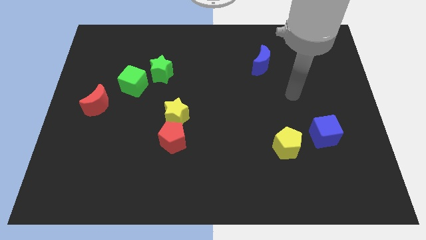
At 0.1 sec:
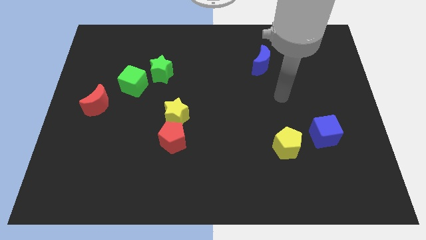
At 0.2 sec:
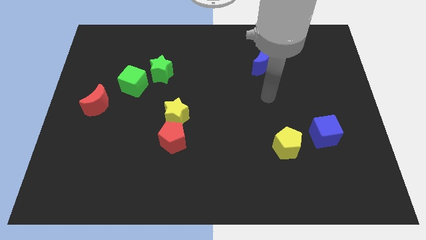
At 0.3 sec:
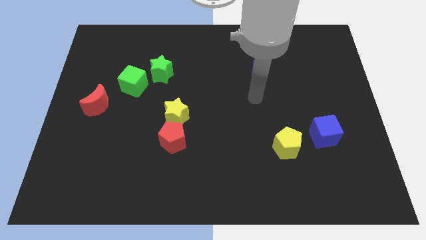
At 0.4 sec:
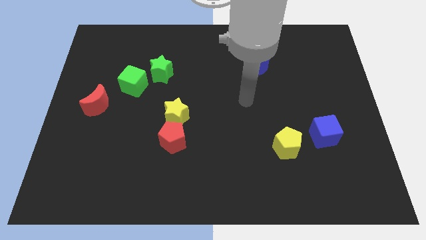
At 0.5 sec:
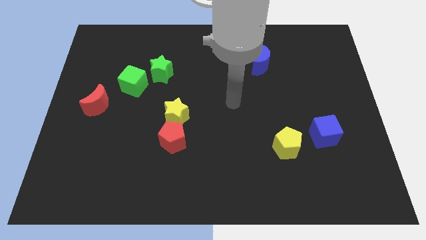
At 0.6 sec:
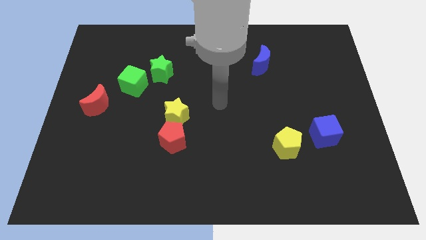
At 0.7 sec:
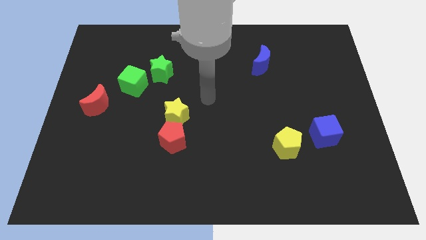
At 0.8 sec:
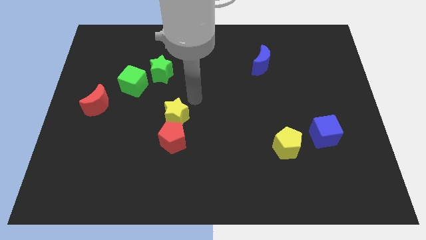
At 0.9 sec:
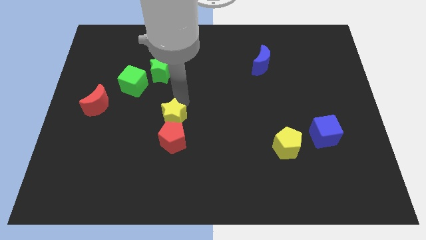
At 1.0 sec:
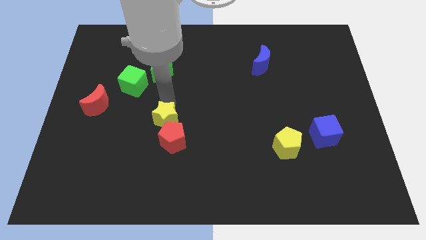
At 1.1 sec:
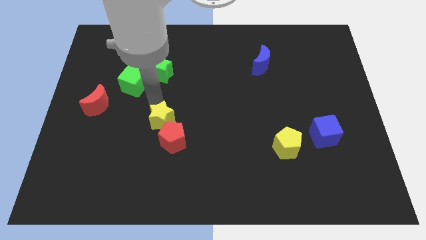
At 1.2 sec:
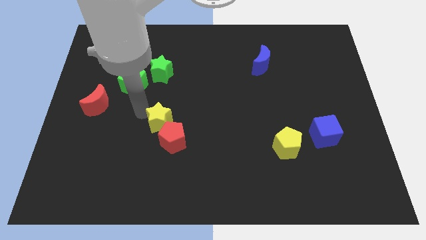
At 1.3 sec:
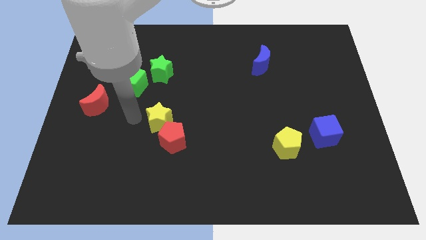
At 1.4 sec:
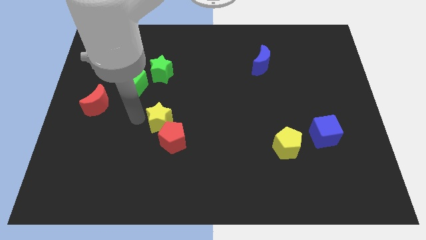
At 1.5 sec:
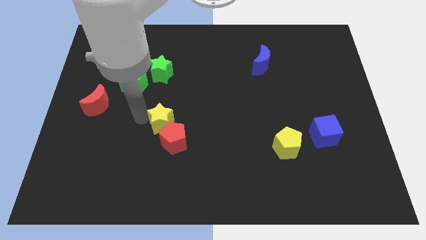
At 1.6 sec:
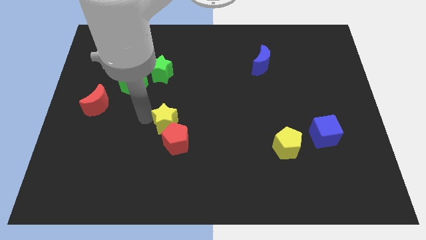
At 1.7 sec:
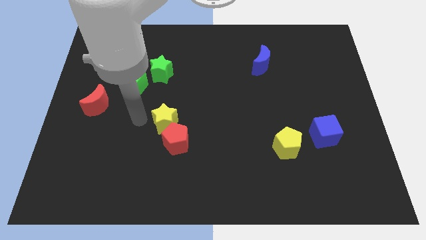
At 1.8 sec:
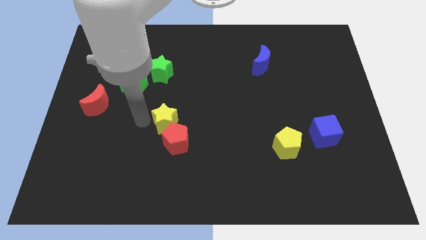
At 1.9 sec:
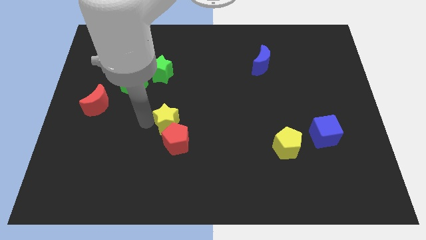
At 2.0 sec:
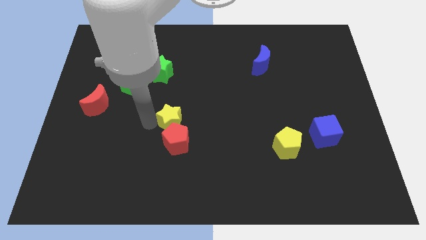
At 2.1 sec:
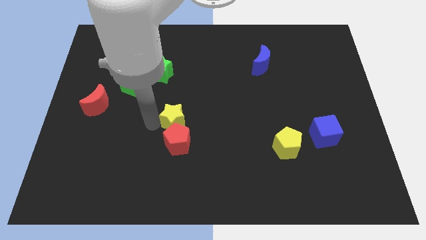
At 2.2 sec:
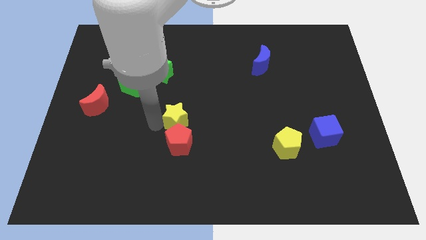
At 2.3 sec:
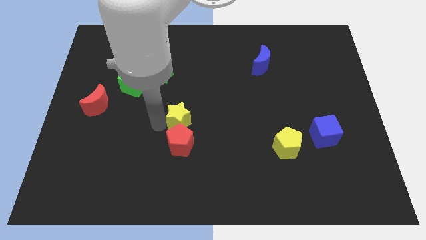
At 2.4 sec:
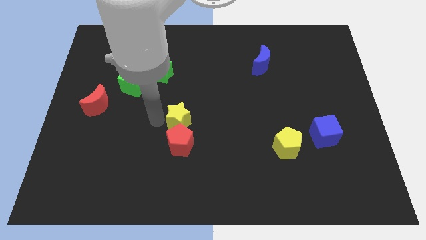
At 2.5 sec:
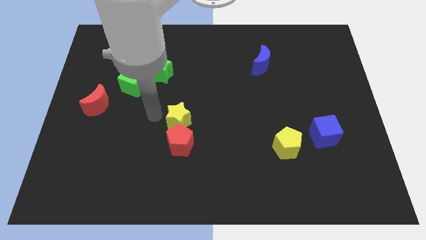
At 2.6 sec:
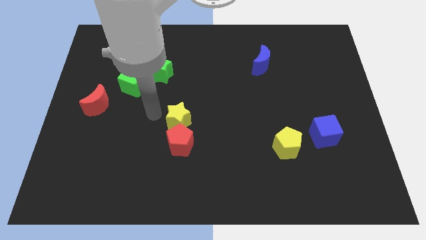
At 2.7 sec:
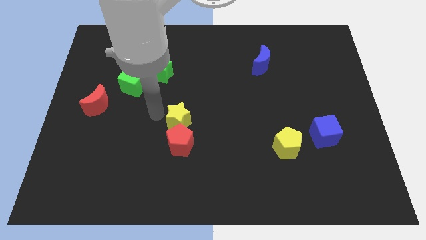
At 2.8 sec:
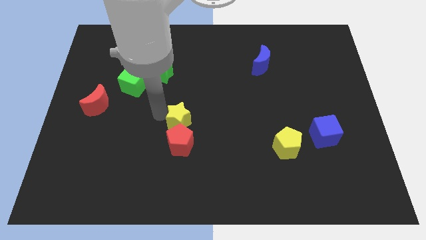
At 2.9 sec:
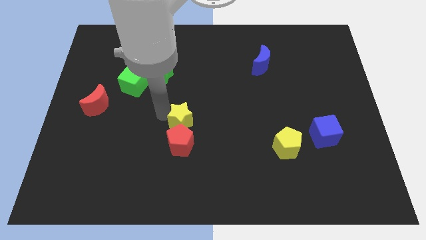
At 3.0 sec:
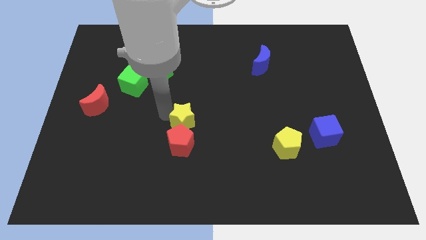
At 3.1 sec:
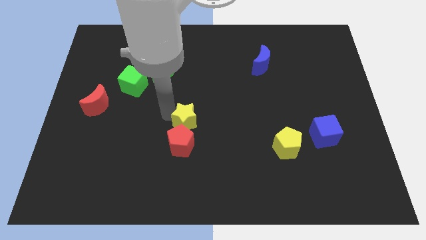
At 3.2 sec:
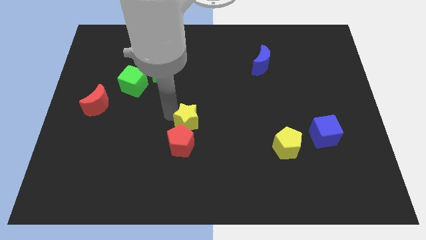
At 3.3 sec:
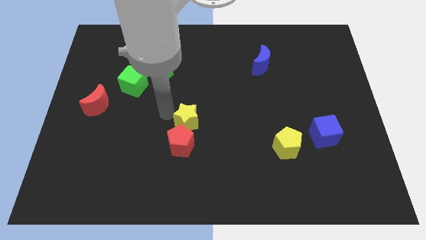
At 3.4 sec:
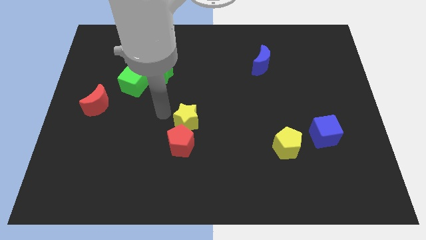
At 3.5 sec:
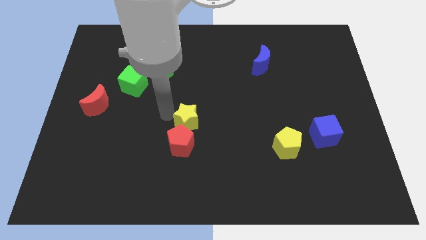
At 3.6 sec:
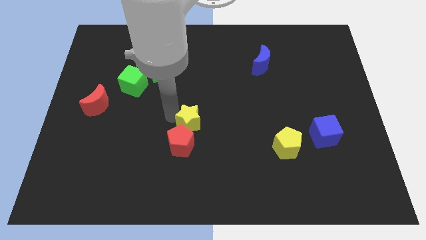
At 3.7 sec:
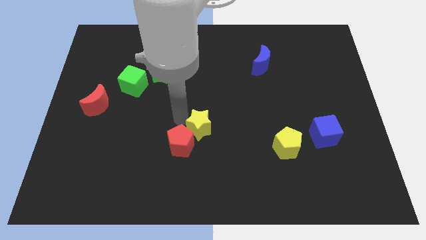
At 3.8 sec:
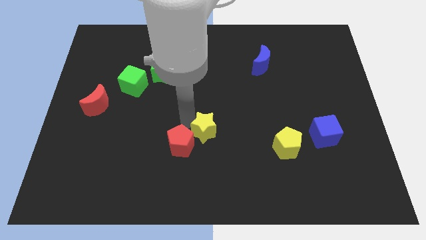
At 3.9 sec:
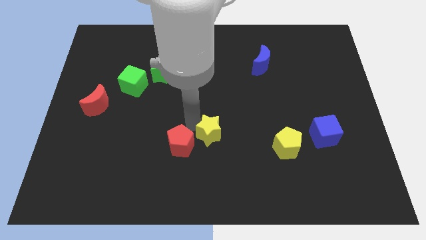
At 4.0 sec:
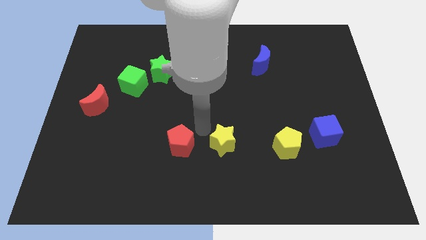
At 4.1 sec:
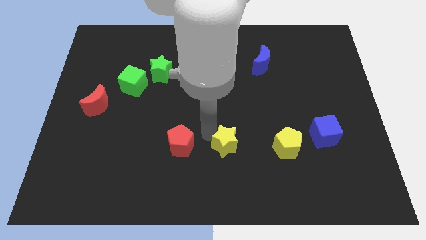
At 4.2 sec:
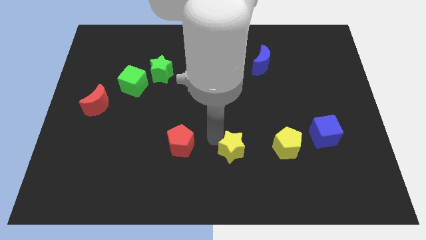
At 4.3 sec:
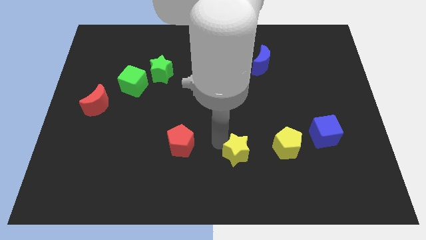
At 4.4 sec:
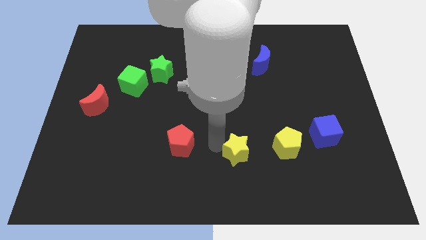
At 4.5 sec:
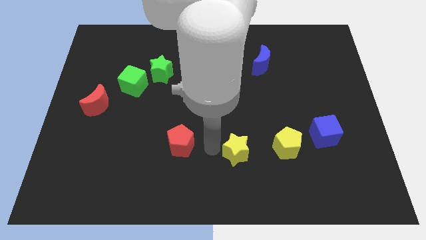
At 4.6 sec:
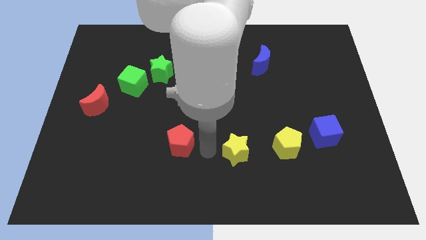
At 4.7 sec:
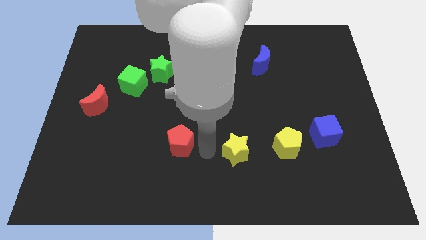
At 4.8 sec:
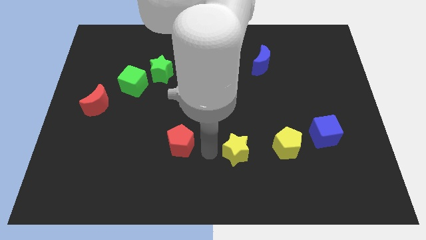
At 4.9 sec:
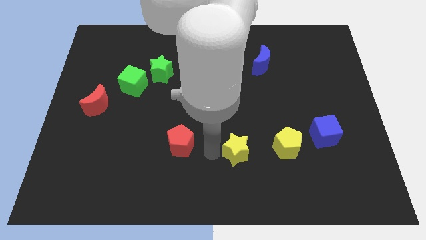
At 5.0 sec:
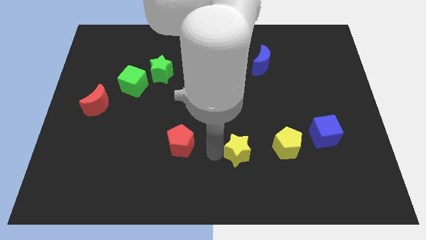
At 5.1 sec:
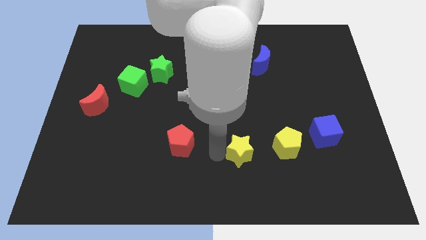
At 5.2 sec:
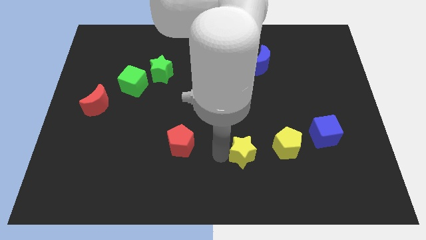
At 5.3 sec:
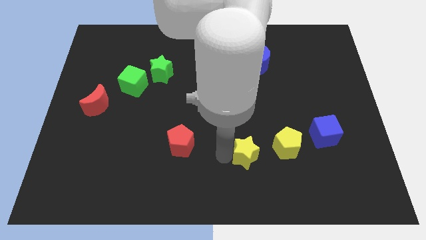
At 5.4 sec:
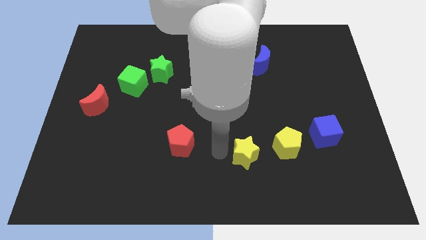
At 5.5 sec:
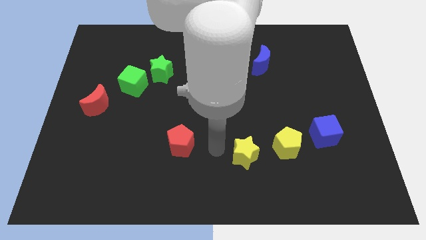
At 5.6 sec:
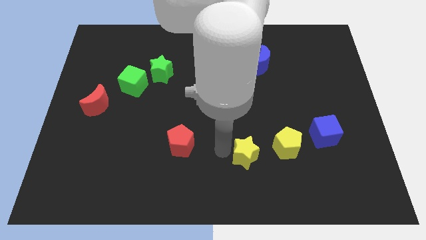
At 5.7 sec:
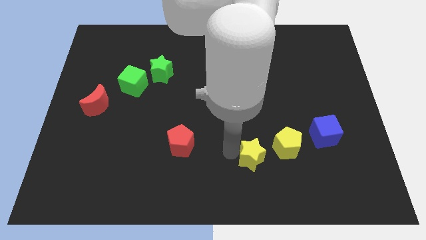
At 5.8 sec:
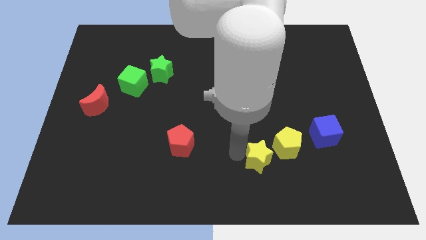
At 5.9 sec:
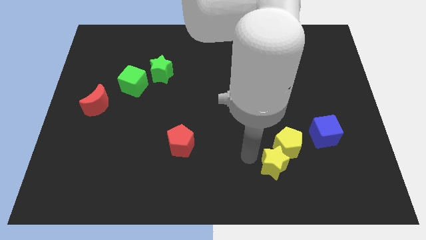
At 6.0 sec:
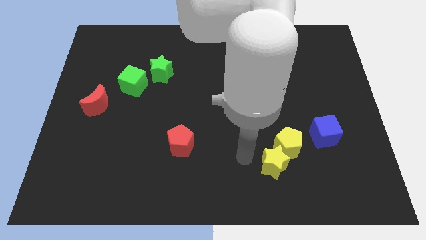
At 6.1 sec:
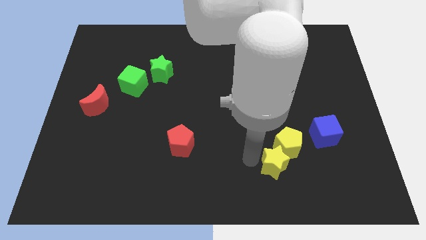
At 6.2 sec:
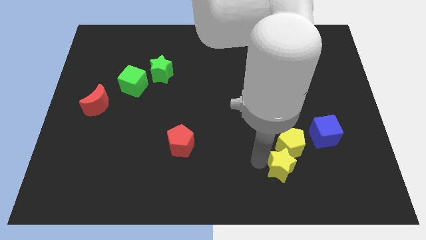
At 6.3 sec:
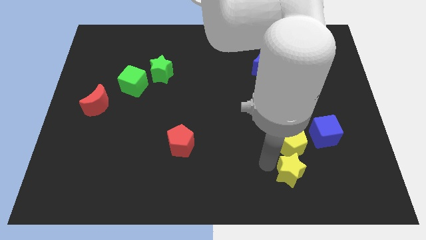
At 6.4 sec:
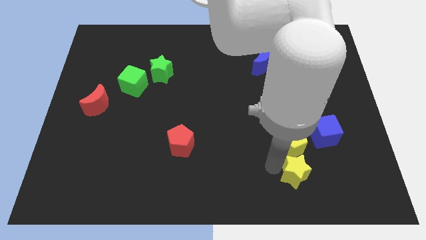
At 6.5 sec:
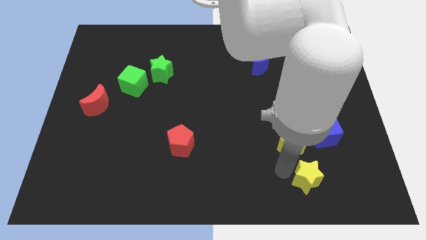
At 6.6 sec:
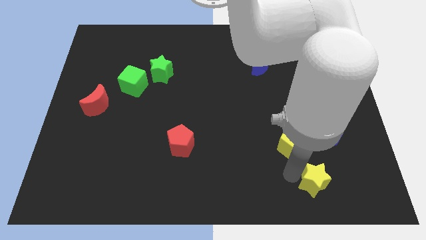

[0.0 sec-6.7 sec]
slide the yellow star below the blue cube

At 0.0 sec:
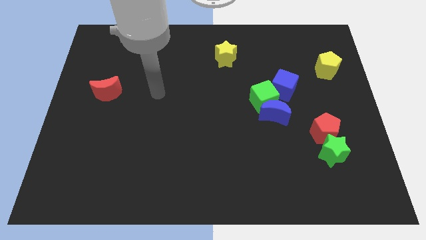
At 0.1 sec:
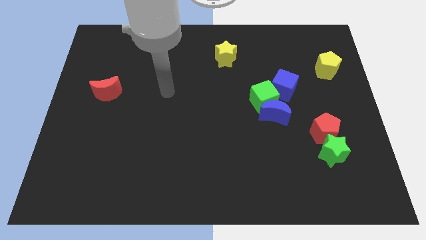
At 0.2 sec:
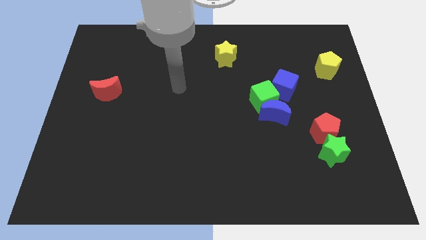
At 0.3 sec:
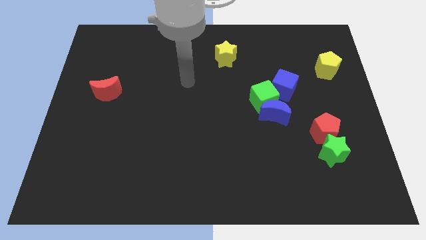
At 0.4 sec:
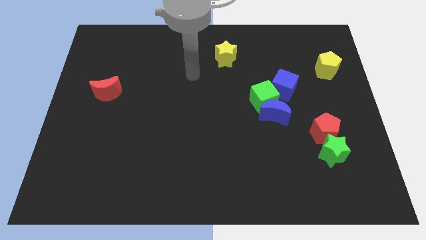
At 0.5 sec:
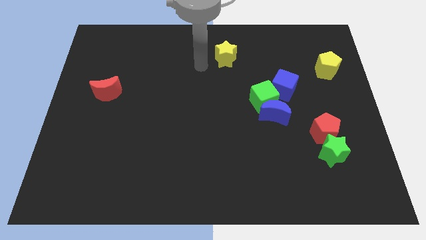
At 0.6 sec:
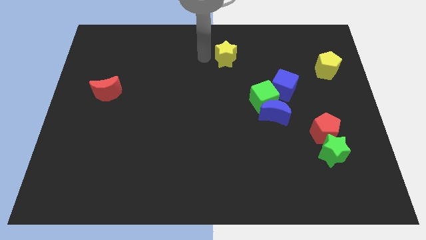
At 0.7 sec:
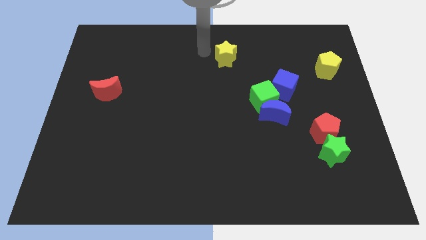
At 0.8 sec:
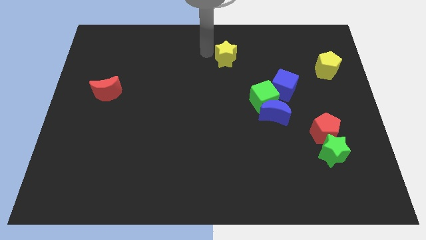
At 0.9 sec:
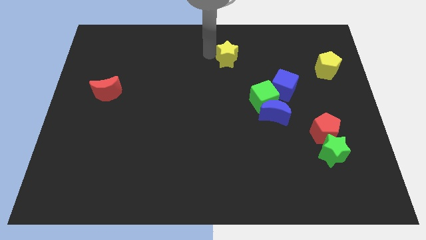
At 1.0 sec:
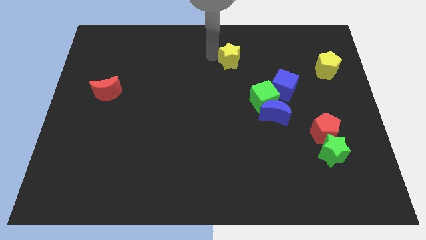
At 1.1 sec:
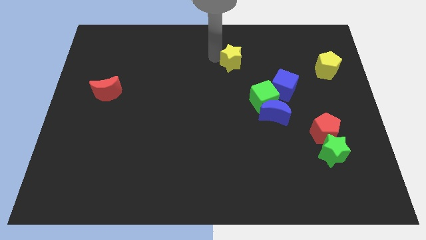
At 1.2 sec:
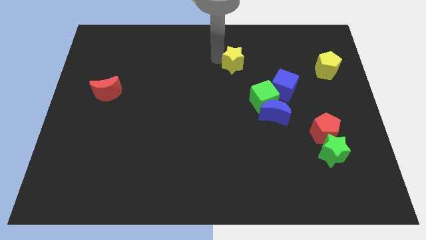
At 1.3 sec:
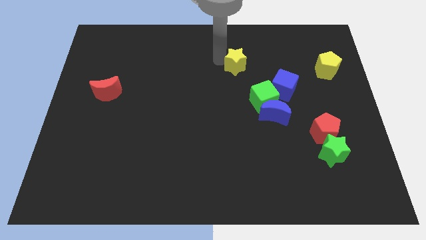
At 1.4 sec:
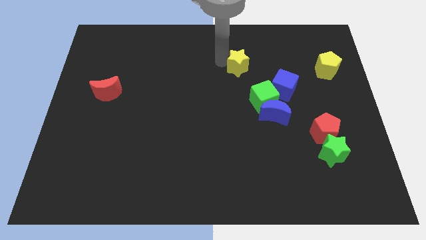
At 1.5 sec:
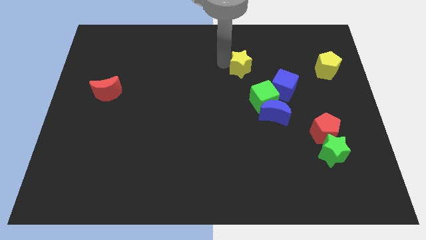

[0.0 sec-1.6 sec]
move the yellow star to the top side of the green cube
